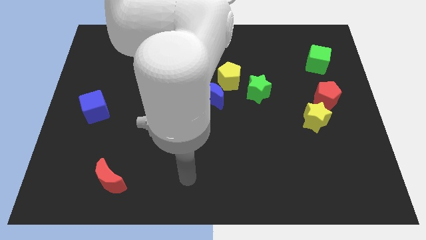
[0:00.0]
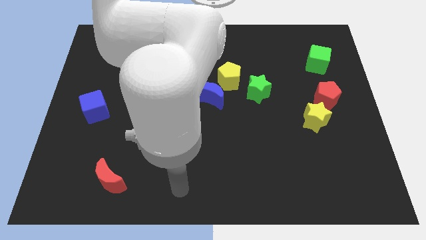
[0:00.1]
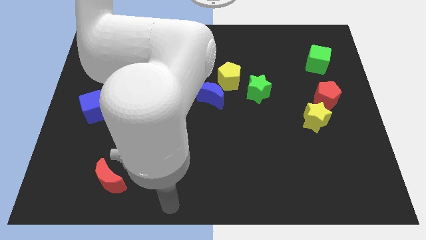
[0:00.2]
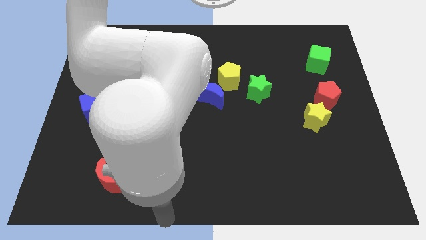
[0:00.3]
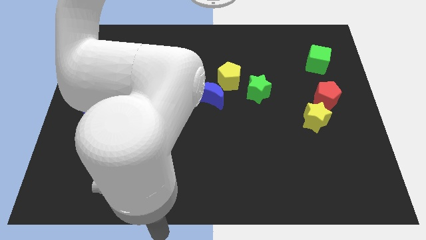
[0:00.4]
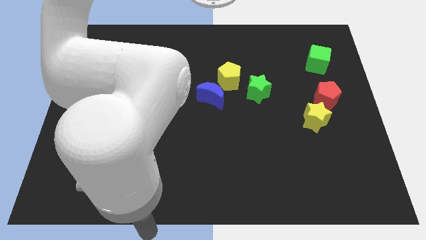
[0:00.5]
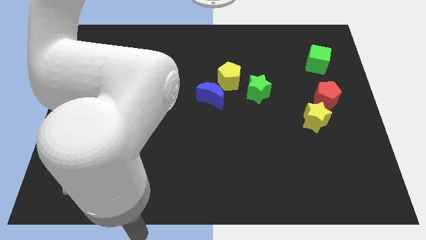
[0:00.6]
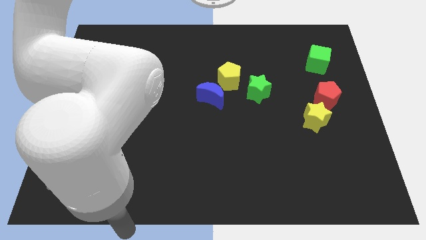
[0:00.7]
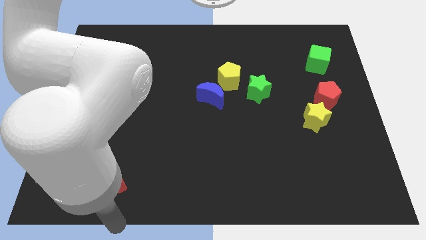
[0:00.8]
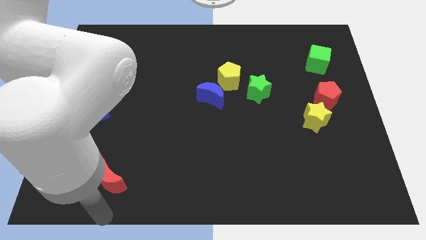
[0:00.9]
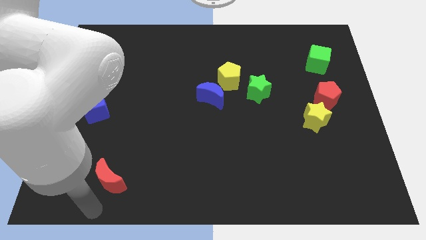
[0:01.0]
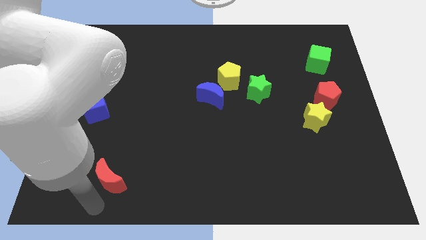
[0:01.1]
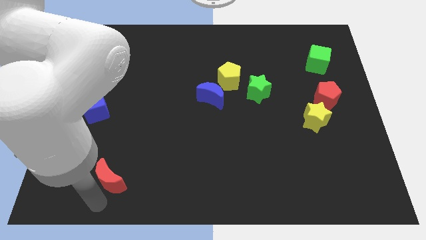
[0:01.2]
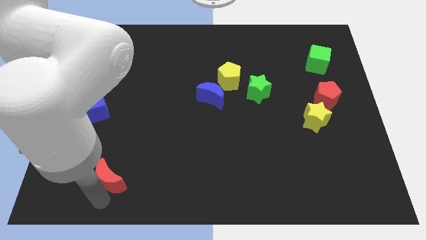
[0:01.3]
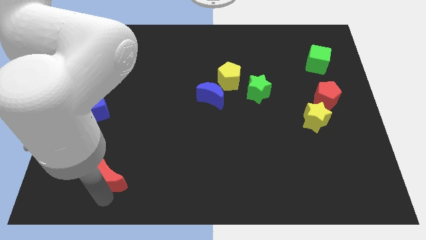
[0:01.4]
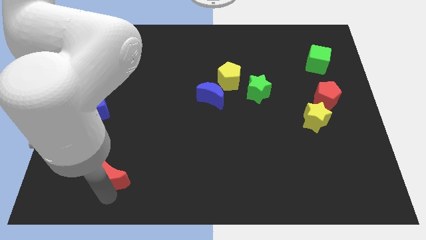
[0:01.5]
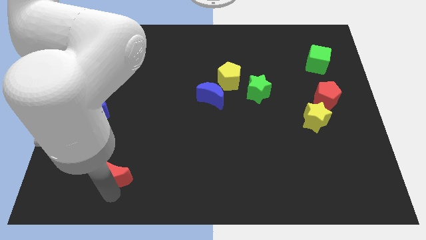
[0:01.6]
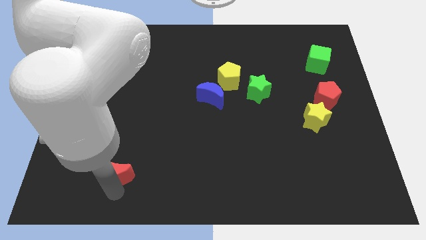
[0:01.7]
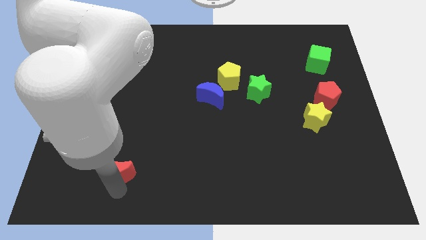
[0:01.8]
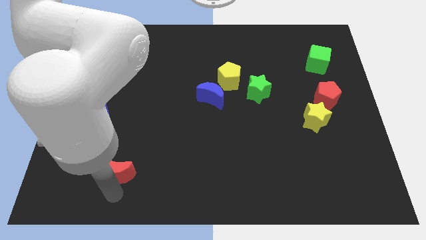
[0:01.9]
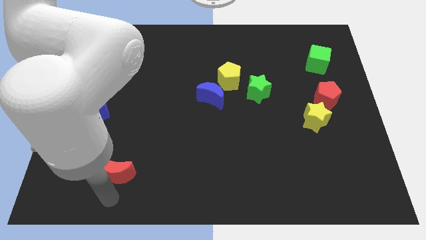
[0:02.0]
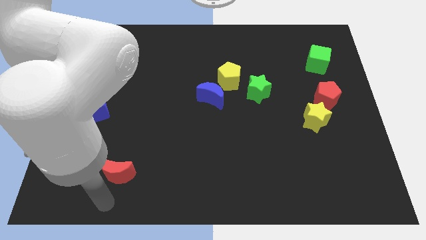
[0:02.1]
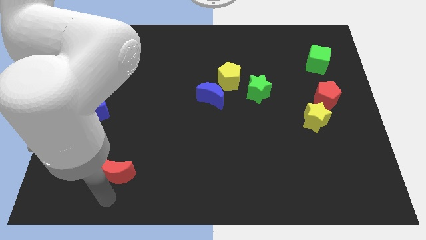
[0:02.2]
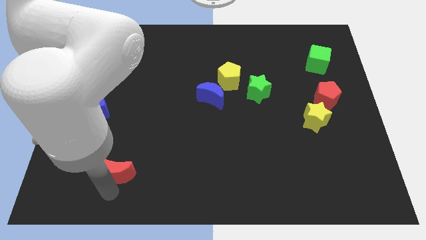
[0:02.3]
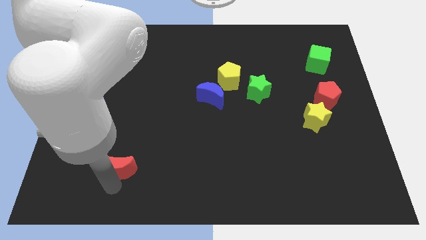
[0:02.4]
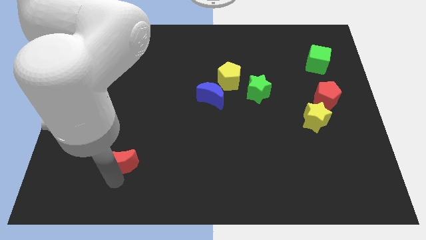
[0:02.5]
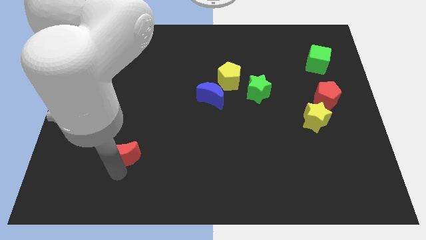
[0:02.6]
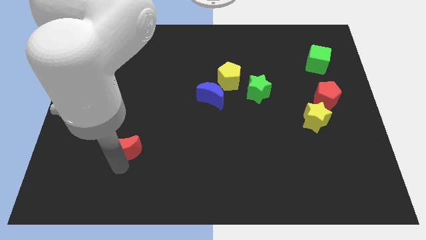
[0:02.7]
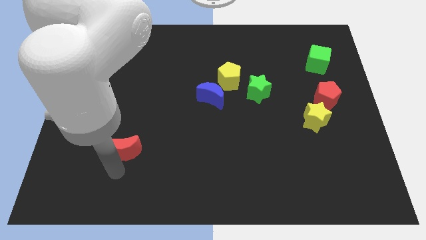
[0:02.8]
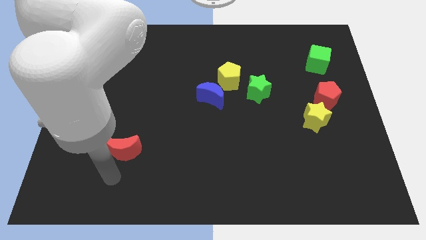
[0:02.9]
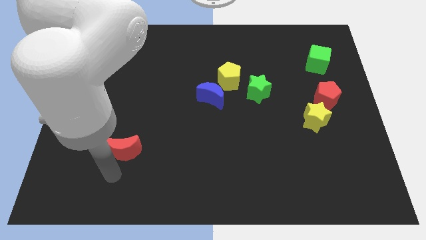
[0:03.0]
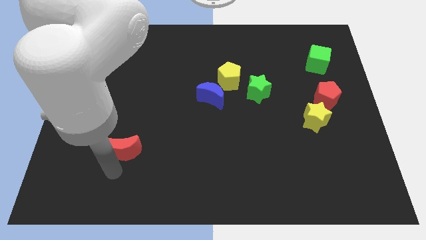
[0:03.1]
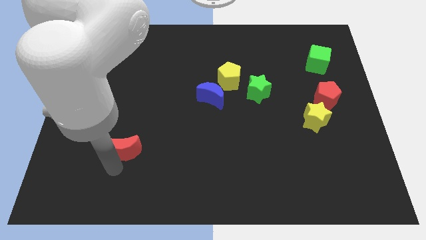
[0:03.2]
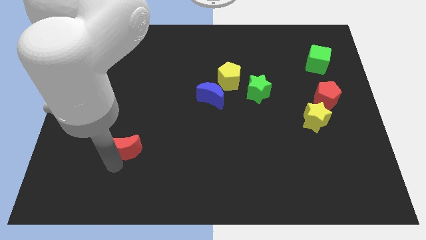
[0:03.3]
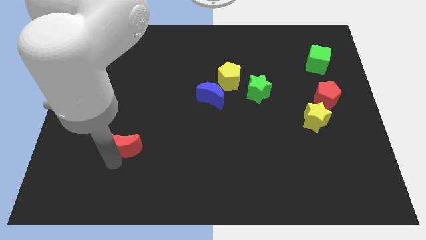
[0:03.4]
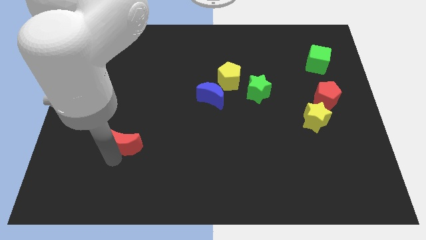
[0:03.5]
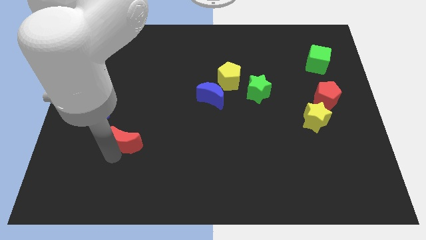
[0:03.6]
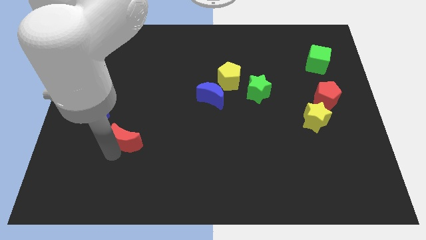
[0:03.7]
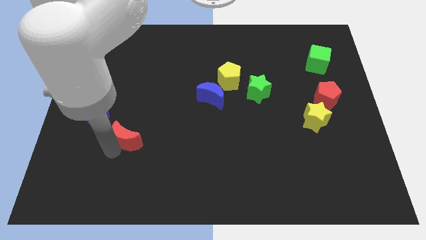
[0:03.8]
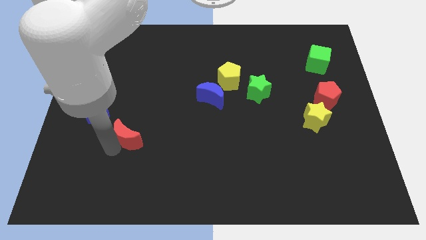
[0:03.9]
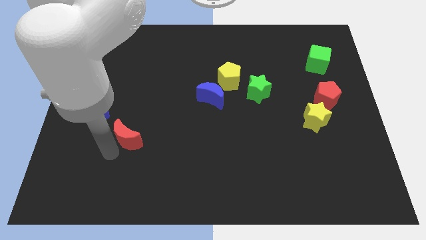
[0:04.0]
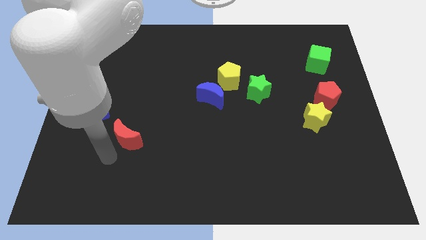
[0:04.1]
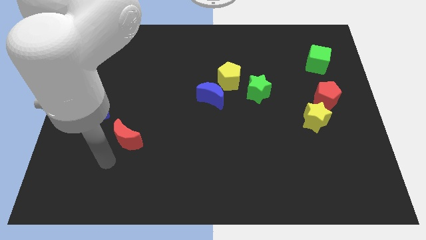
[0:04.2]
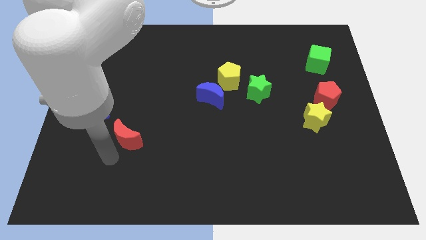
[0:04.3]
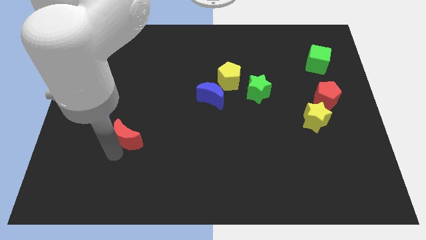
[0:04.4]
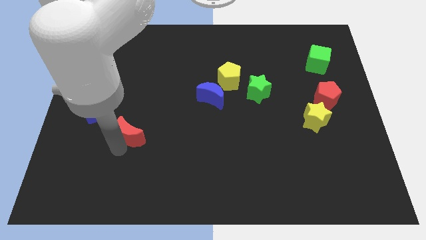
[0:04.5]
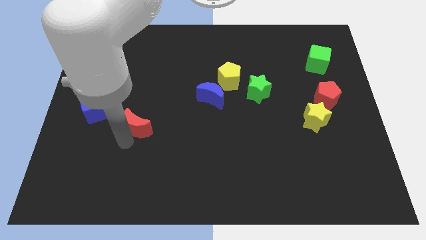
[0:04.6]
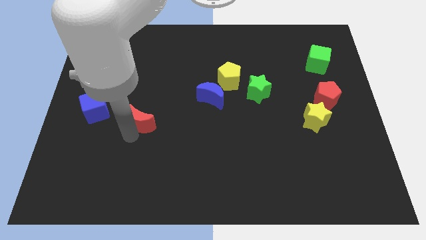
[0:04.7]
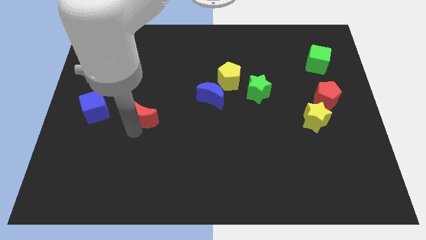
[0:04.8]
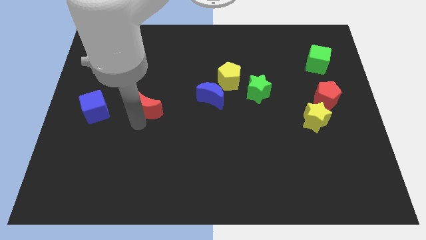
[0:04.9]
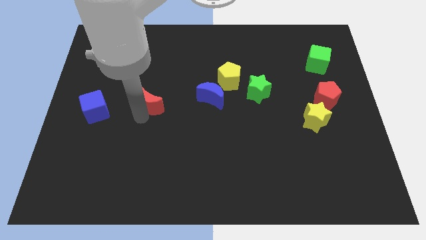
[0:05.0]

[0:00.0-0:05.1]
slide the red moon just left of the blue moon

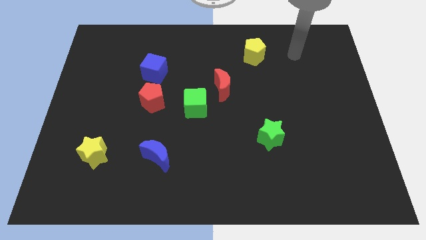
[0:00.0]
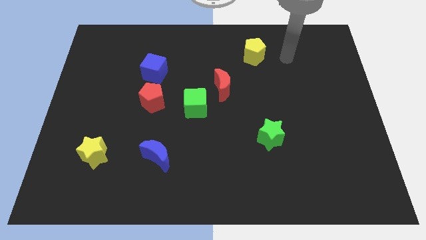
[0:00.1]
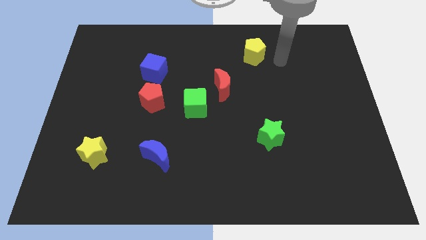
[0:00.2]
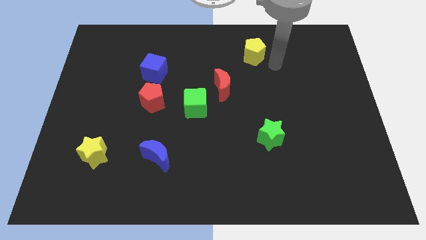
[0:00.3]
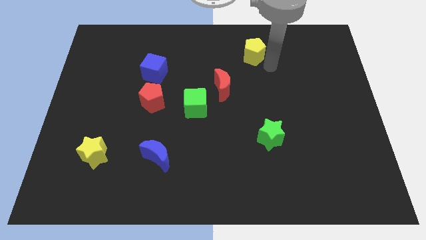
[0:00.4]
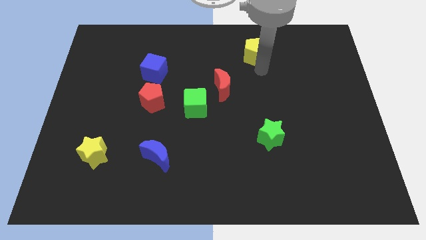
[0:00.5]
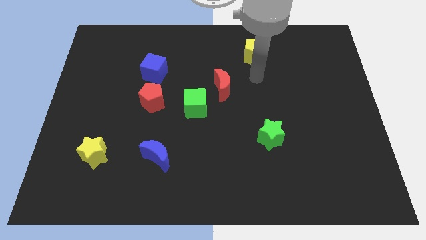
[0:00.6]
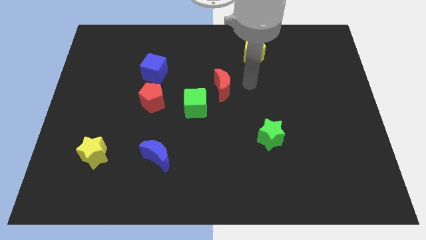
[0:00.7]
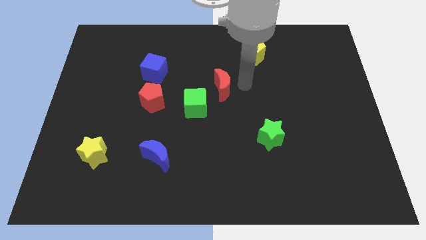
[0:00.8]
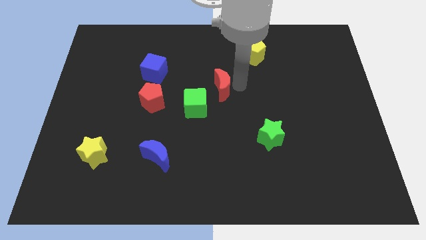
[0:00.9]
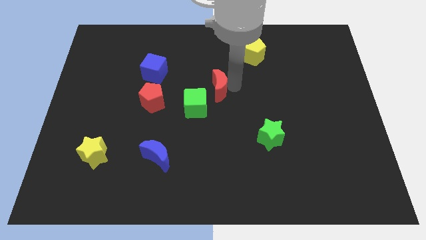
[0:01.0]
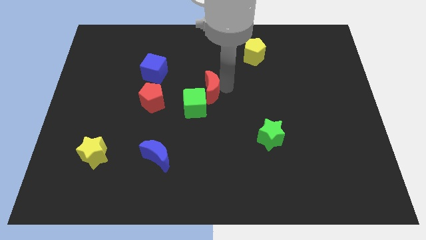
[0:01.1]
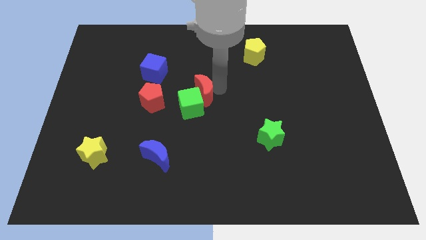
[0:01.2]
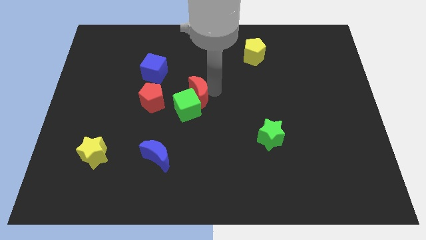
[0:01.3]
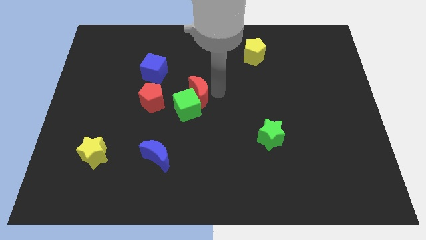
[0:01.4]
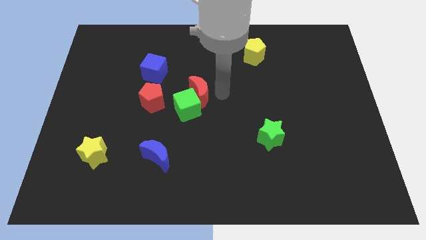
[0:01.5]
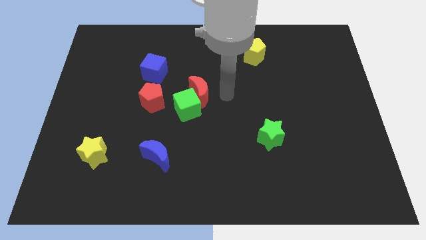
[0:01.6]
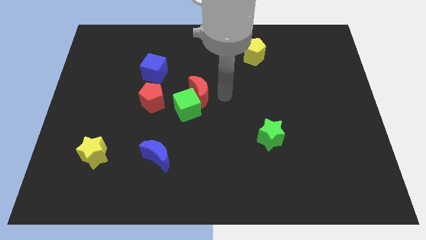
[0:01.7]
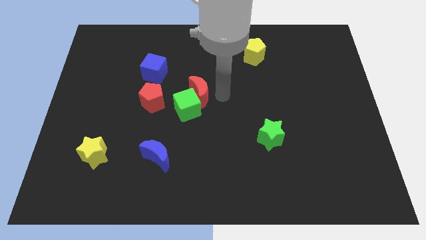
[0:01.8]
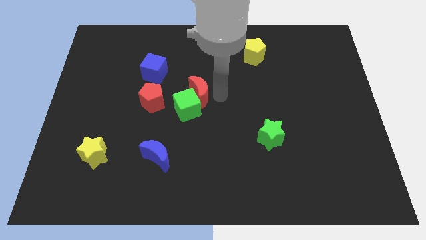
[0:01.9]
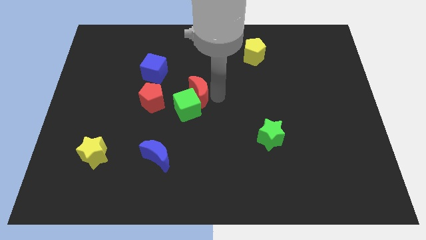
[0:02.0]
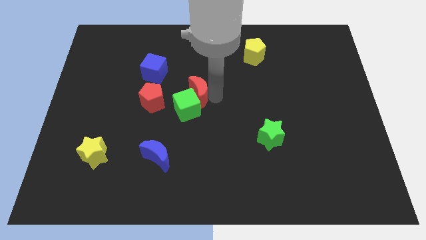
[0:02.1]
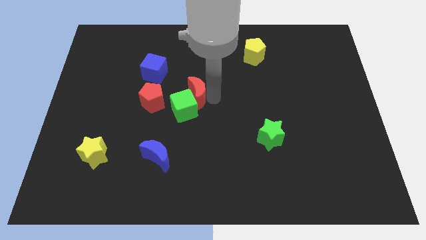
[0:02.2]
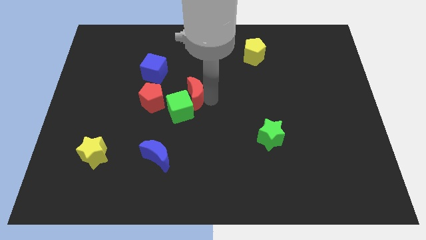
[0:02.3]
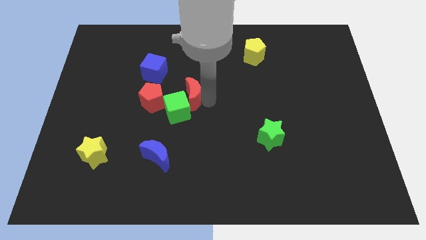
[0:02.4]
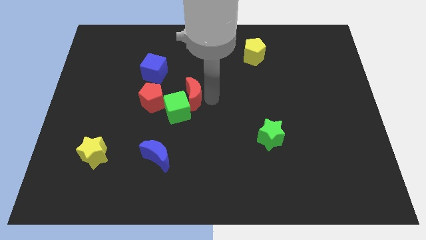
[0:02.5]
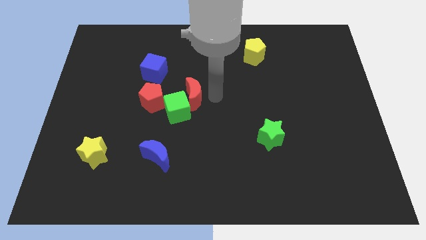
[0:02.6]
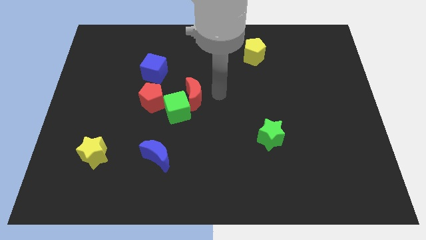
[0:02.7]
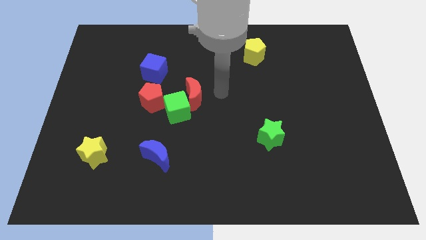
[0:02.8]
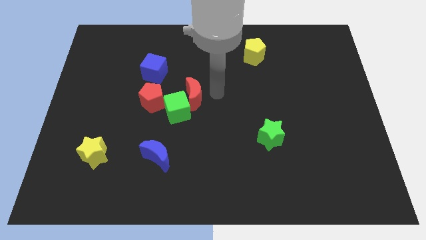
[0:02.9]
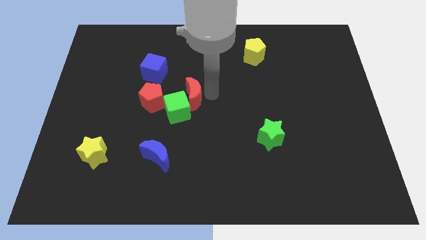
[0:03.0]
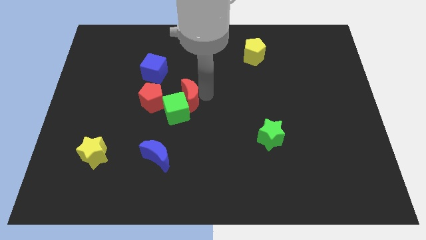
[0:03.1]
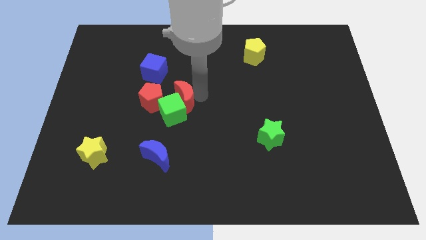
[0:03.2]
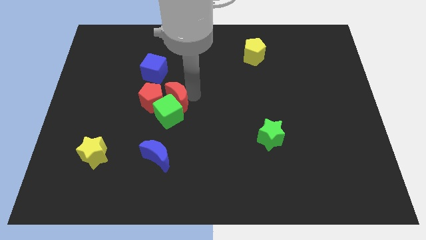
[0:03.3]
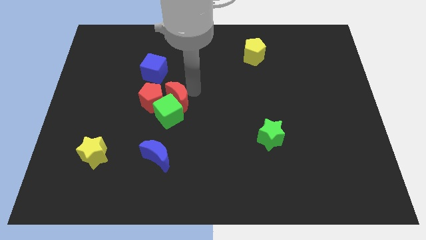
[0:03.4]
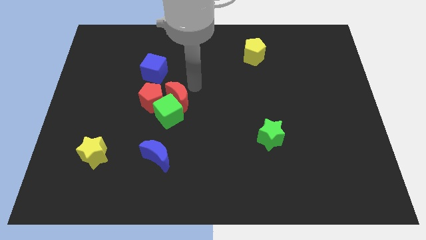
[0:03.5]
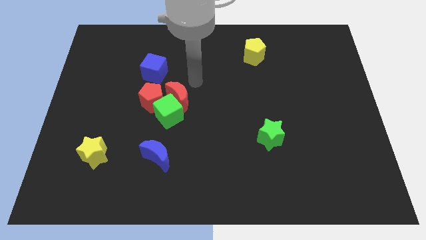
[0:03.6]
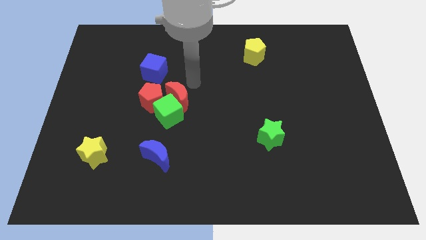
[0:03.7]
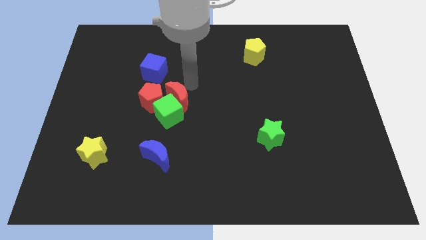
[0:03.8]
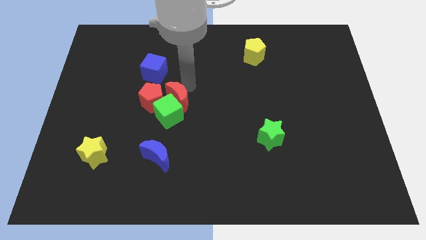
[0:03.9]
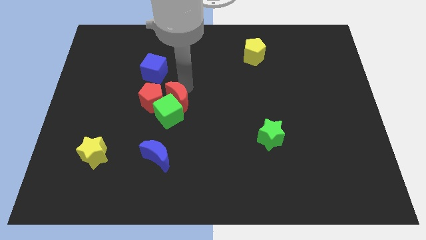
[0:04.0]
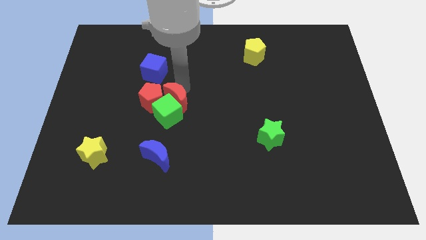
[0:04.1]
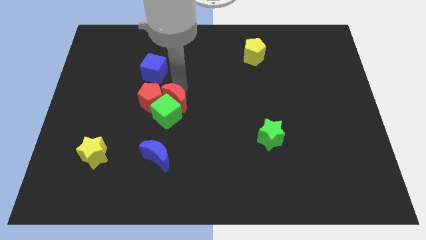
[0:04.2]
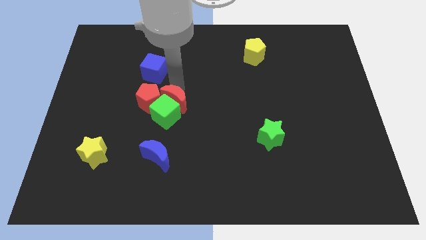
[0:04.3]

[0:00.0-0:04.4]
put the red moon to the top side of the blue moon
